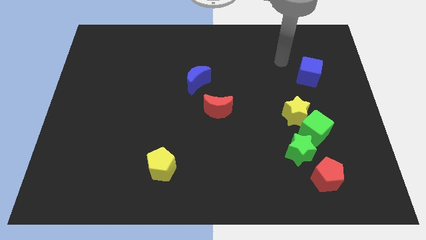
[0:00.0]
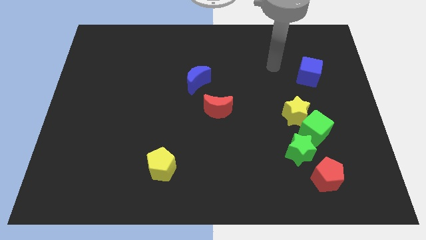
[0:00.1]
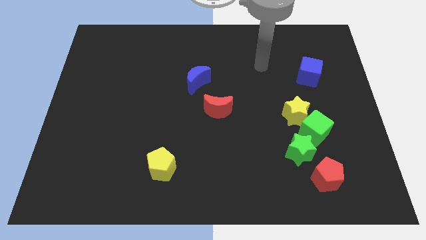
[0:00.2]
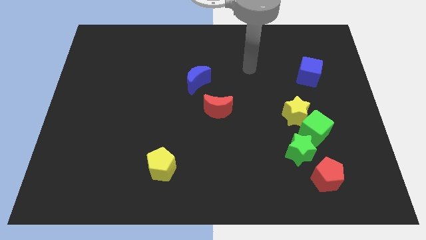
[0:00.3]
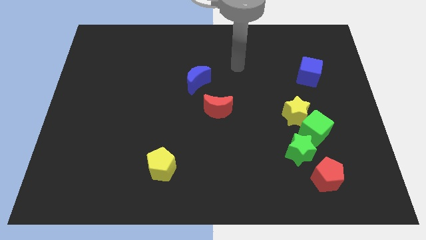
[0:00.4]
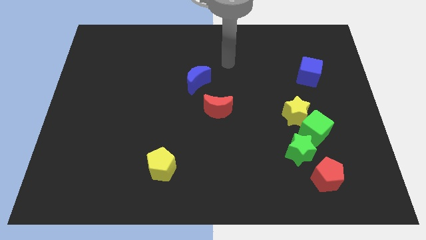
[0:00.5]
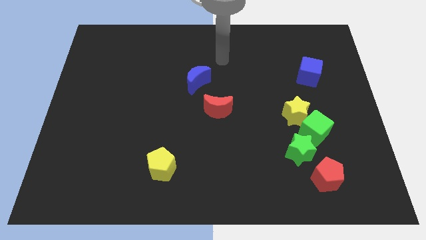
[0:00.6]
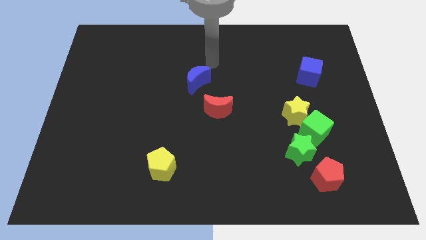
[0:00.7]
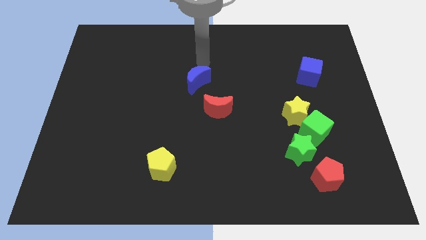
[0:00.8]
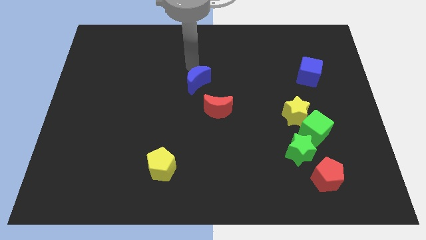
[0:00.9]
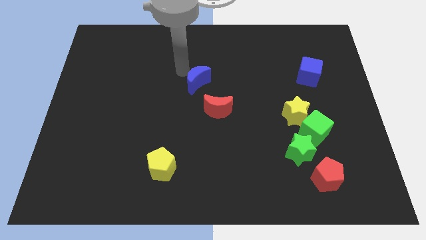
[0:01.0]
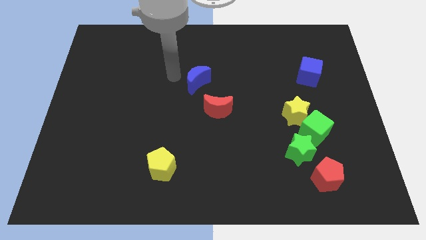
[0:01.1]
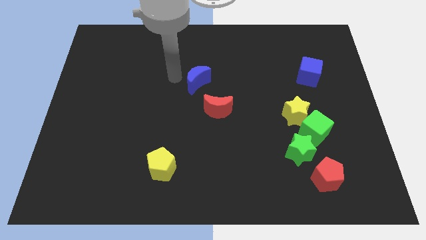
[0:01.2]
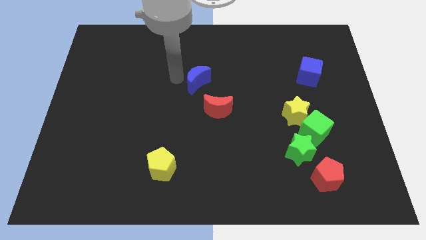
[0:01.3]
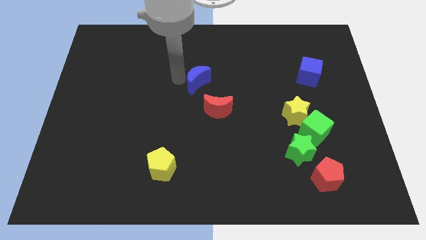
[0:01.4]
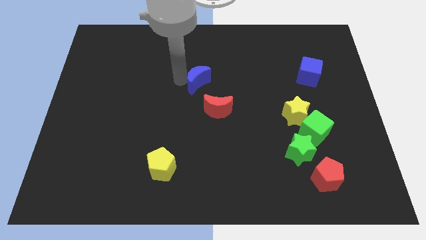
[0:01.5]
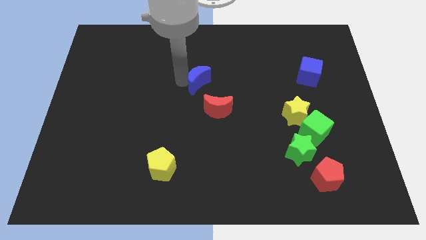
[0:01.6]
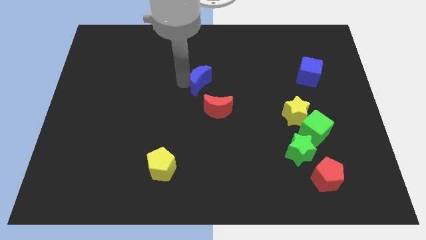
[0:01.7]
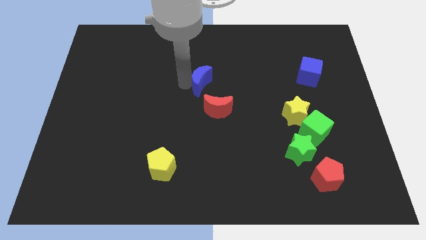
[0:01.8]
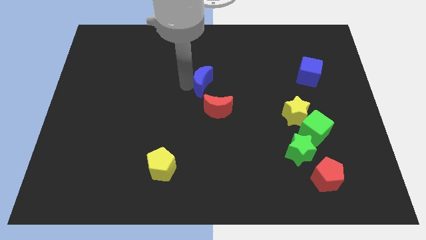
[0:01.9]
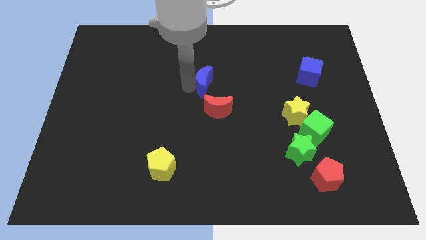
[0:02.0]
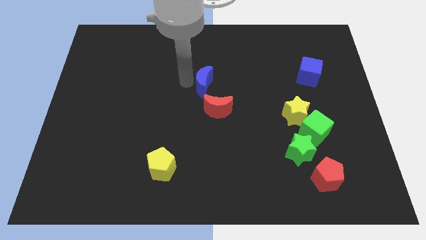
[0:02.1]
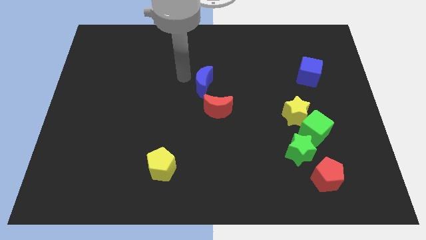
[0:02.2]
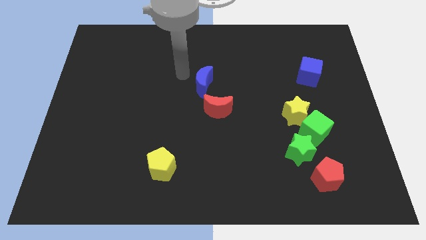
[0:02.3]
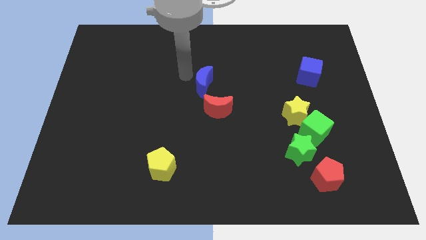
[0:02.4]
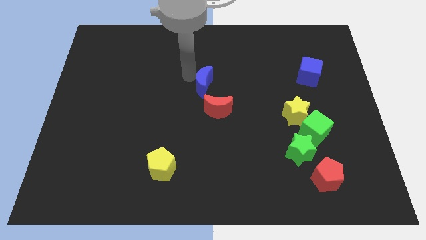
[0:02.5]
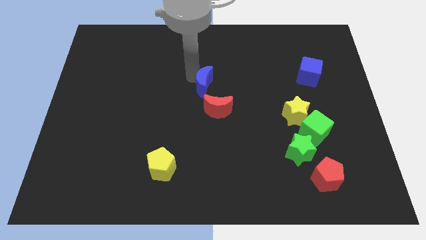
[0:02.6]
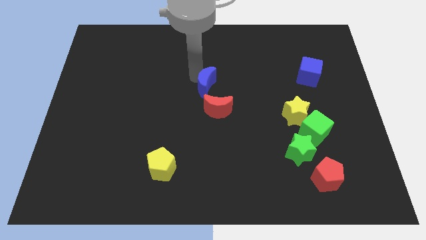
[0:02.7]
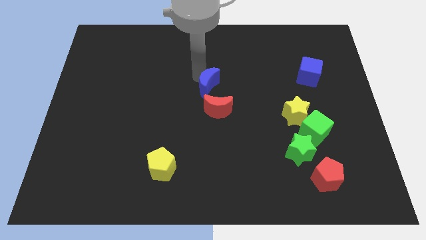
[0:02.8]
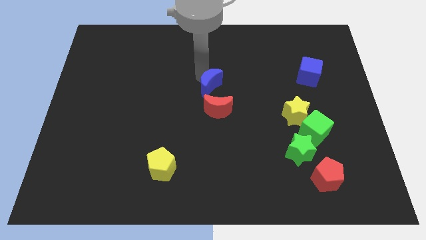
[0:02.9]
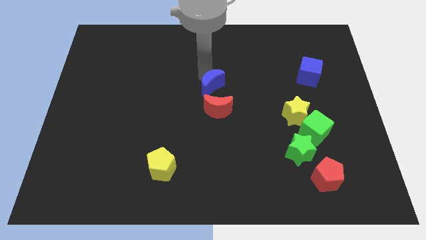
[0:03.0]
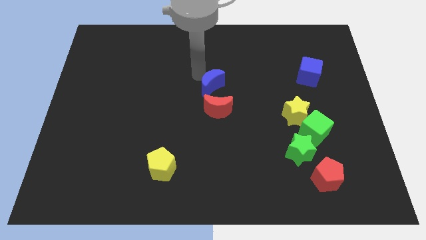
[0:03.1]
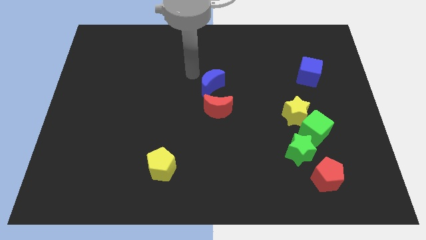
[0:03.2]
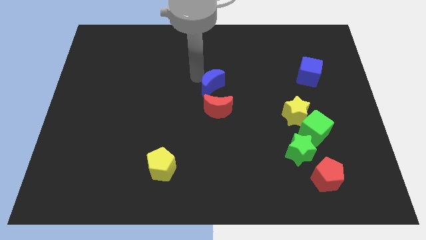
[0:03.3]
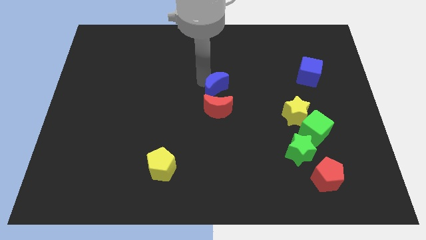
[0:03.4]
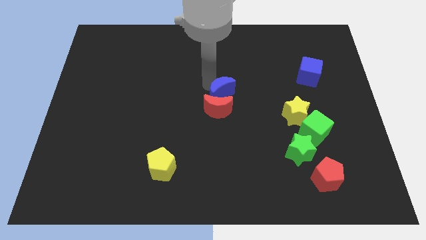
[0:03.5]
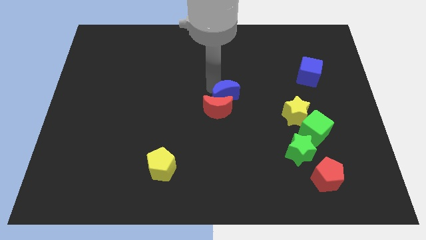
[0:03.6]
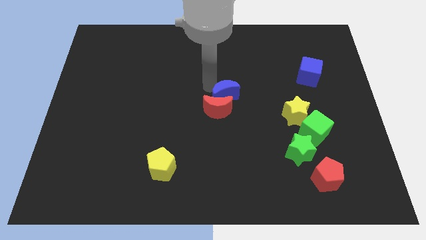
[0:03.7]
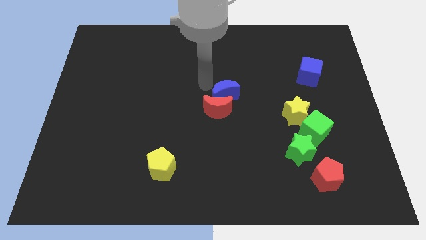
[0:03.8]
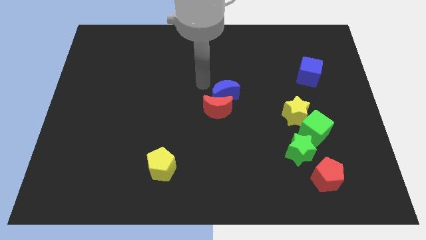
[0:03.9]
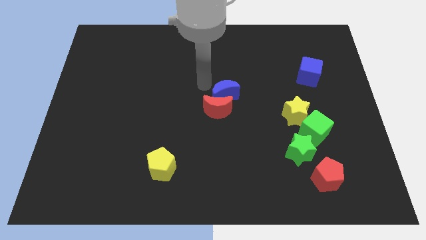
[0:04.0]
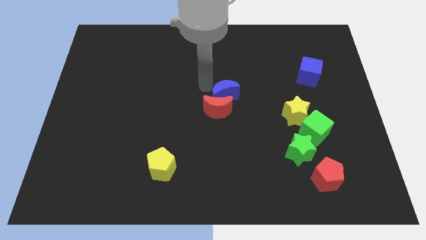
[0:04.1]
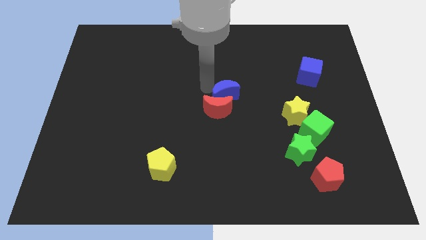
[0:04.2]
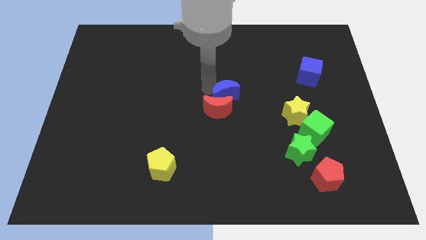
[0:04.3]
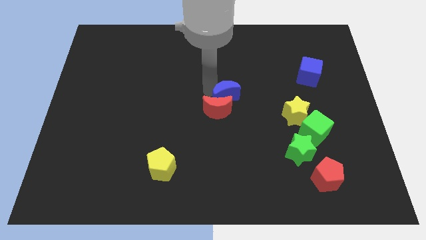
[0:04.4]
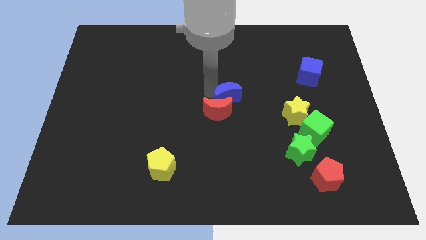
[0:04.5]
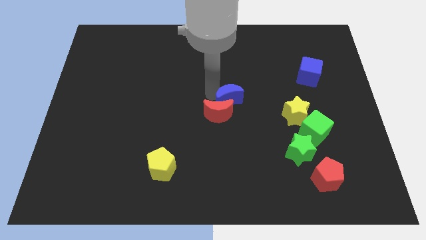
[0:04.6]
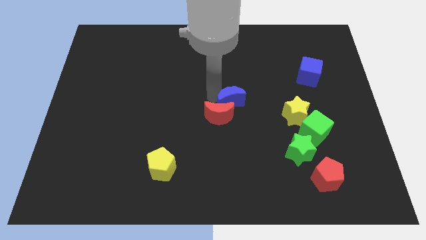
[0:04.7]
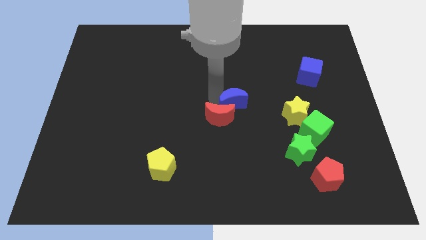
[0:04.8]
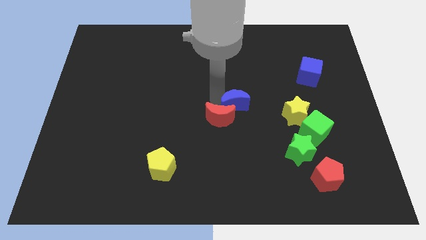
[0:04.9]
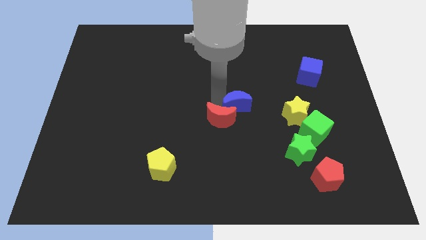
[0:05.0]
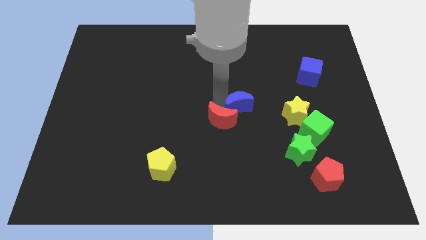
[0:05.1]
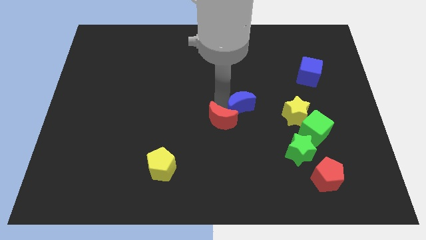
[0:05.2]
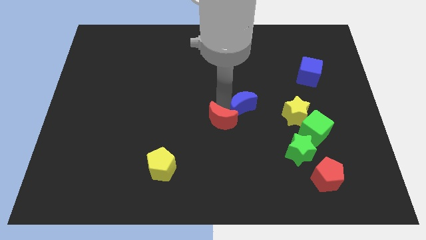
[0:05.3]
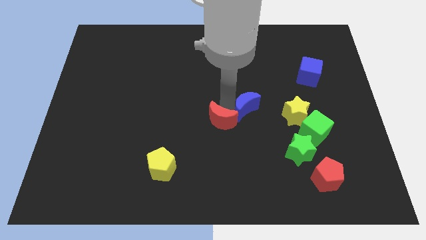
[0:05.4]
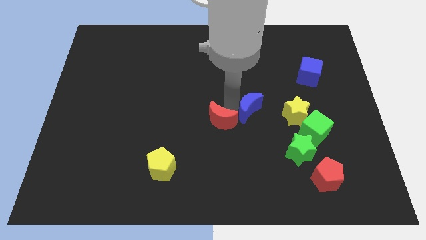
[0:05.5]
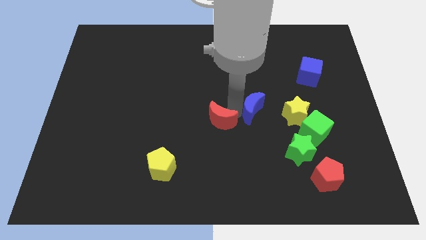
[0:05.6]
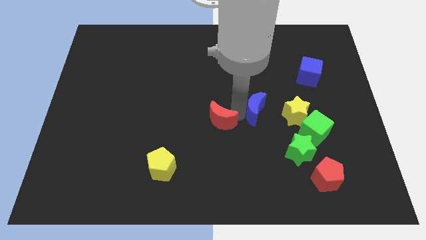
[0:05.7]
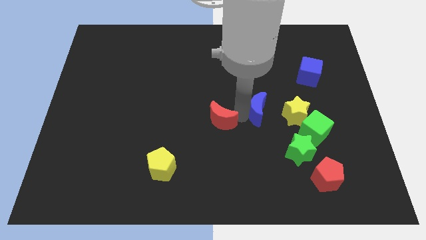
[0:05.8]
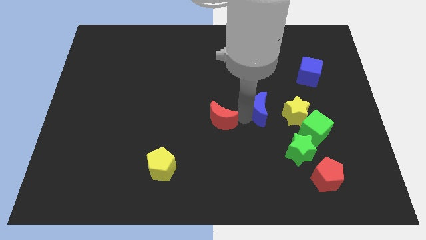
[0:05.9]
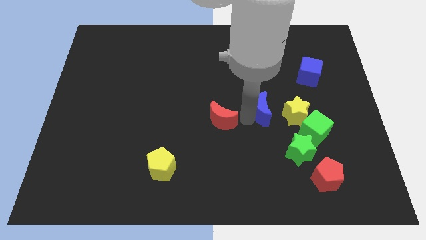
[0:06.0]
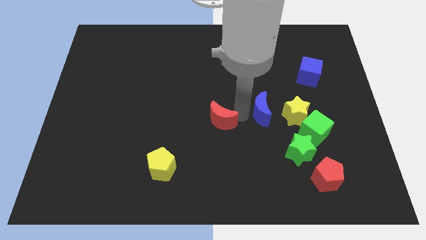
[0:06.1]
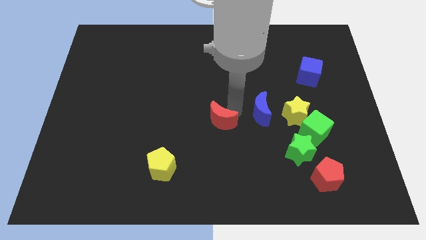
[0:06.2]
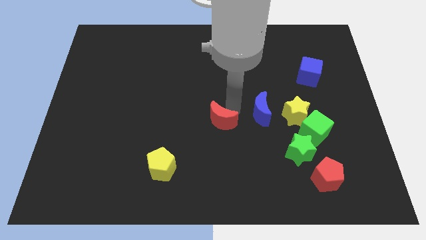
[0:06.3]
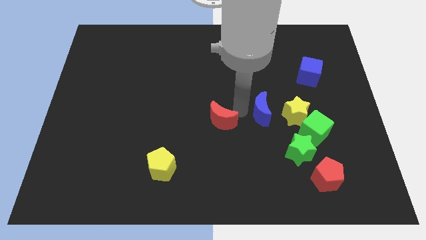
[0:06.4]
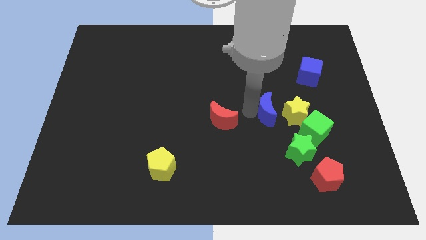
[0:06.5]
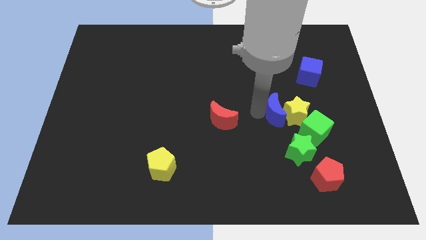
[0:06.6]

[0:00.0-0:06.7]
push the blue moon close to the yellow star
